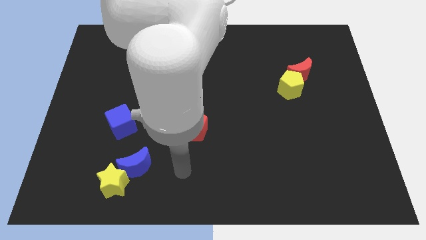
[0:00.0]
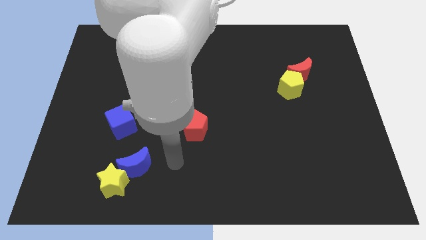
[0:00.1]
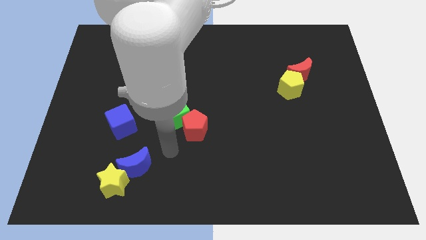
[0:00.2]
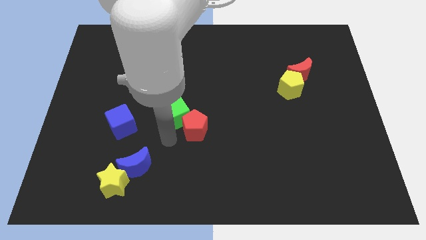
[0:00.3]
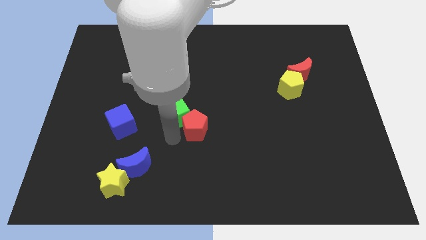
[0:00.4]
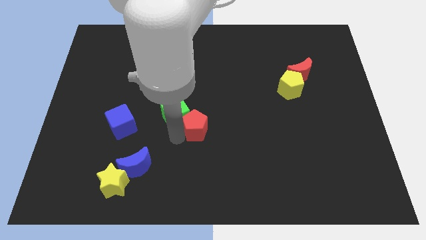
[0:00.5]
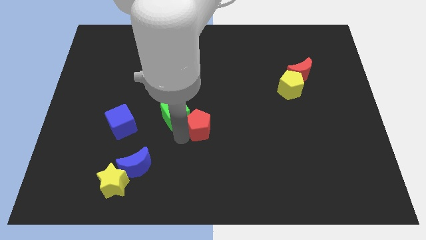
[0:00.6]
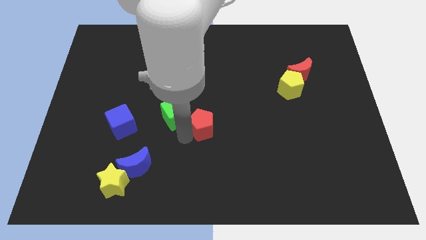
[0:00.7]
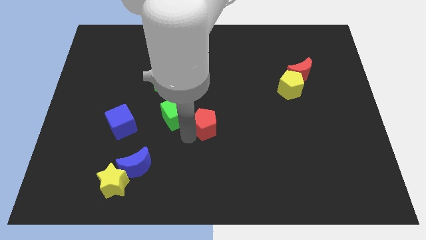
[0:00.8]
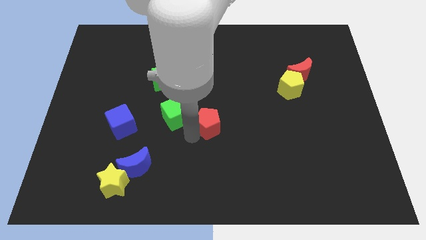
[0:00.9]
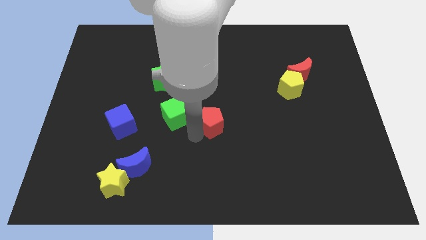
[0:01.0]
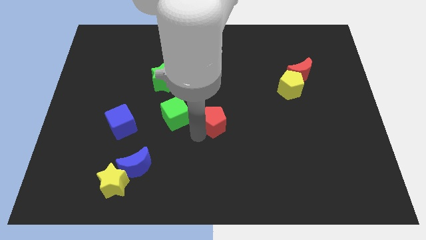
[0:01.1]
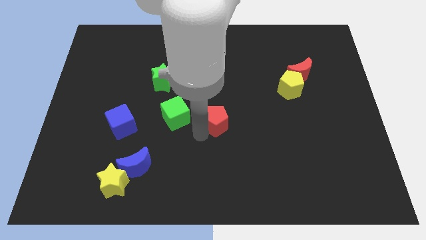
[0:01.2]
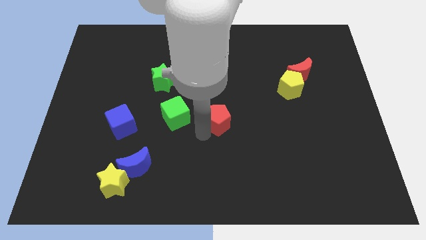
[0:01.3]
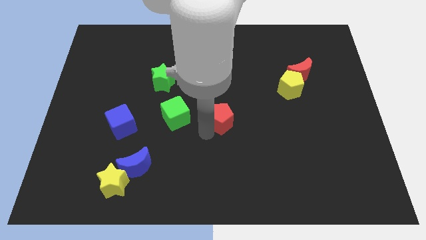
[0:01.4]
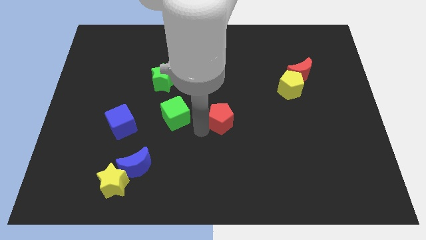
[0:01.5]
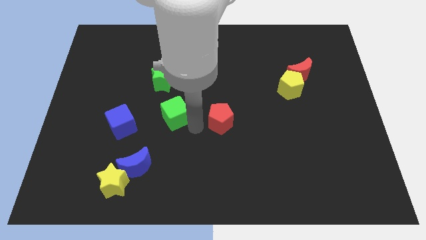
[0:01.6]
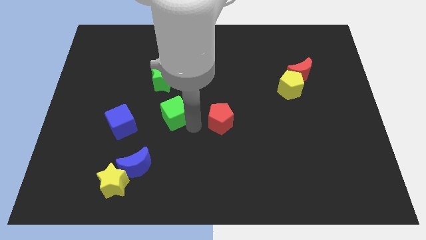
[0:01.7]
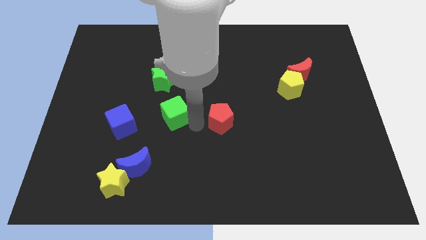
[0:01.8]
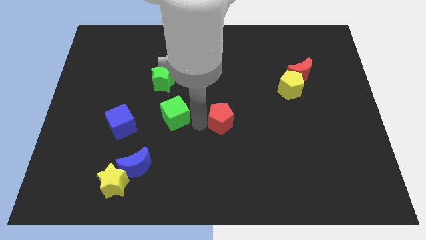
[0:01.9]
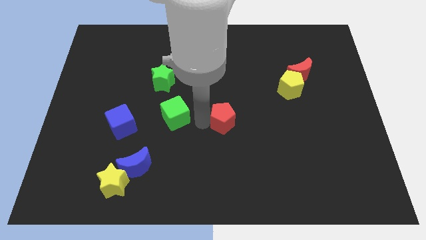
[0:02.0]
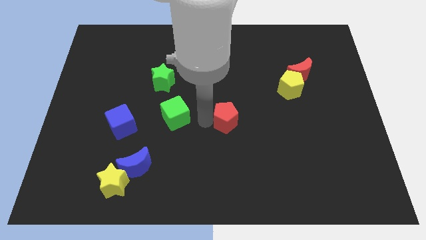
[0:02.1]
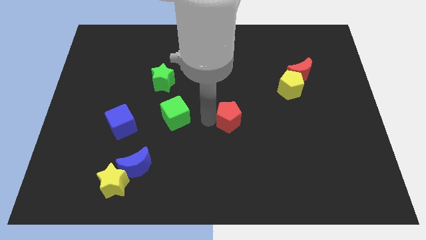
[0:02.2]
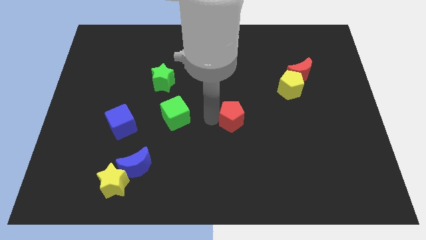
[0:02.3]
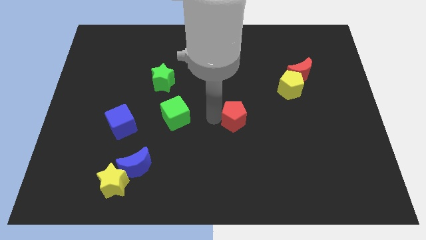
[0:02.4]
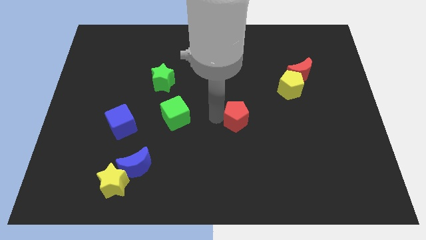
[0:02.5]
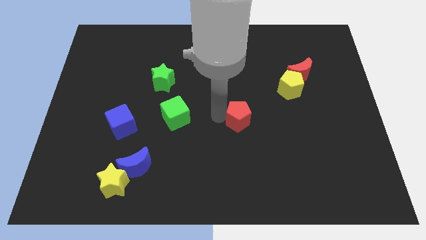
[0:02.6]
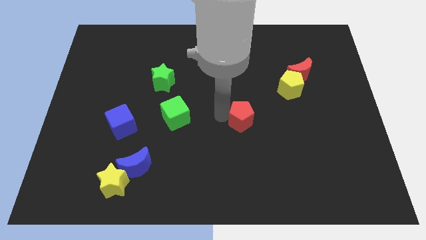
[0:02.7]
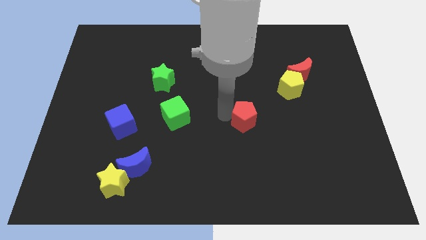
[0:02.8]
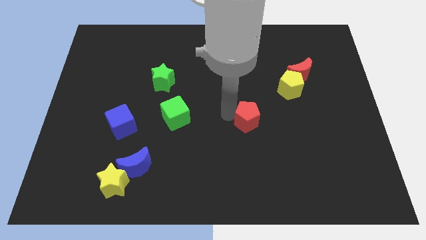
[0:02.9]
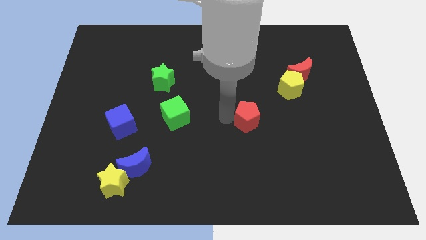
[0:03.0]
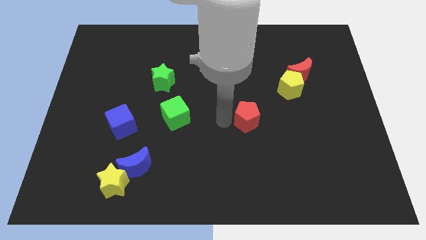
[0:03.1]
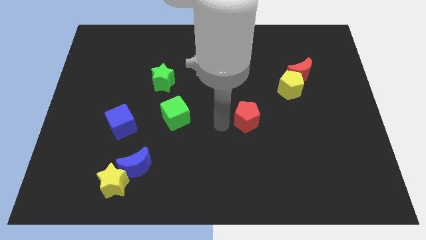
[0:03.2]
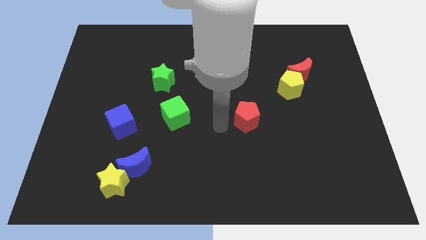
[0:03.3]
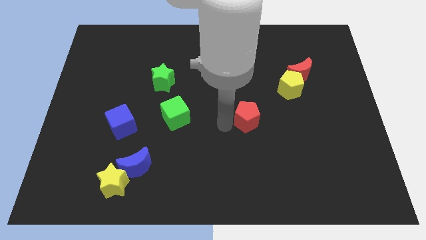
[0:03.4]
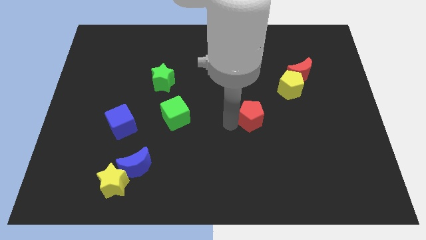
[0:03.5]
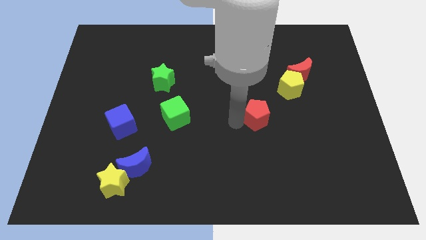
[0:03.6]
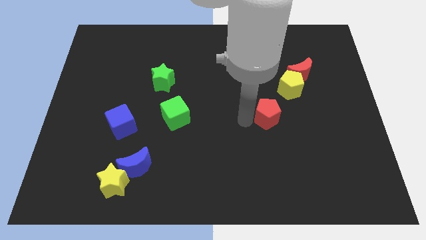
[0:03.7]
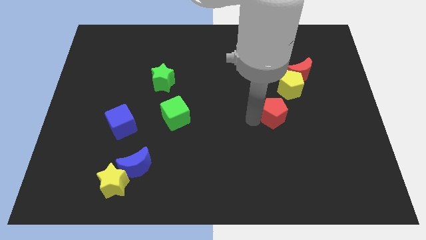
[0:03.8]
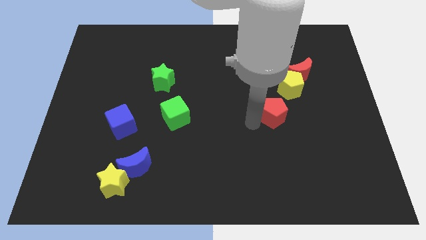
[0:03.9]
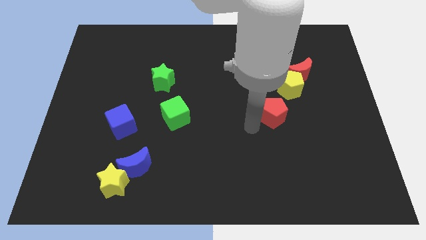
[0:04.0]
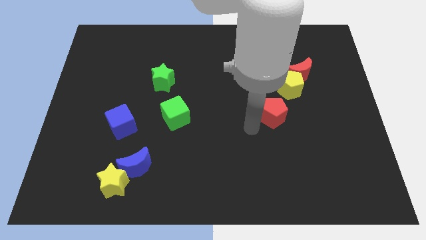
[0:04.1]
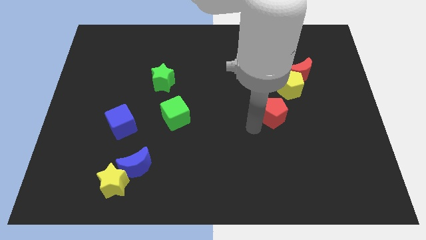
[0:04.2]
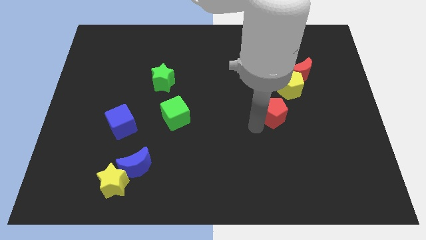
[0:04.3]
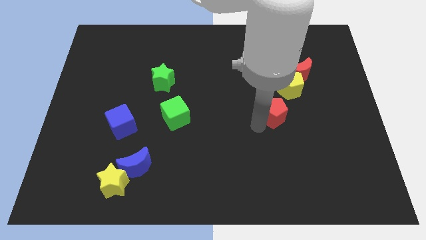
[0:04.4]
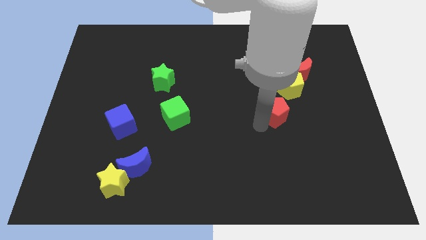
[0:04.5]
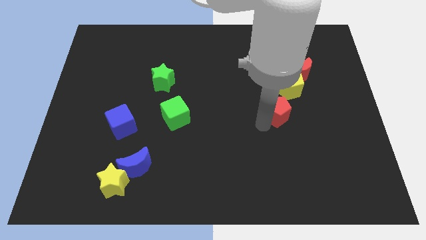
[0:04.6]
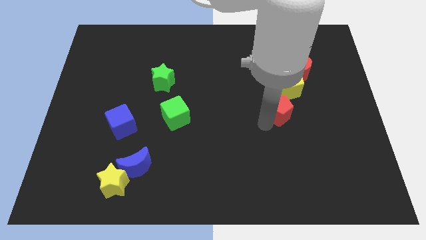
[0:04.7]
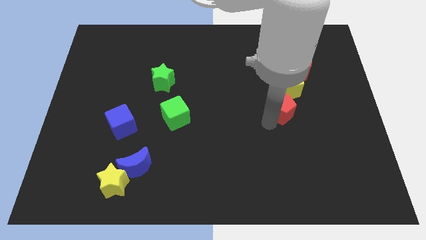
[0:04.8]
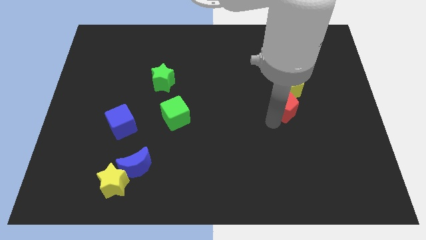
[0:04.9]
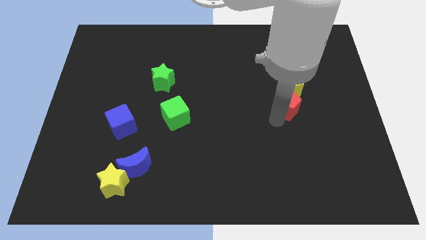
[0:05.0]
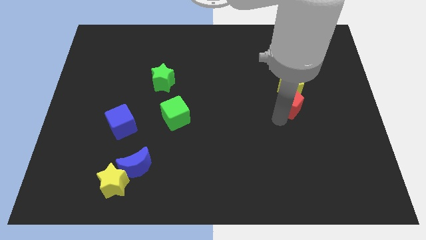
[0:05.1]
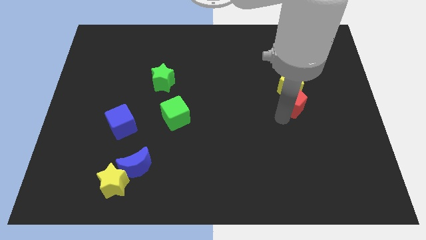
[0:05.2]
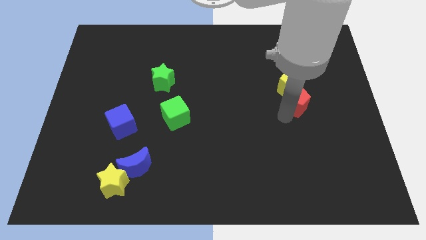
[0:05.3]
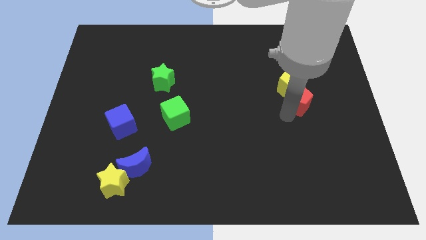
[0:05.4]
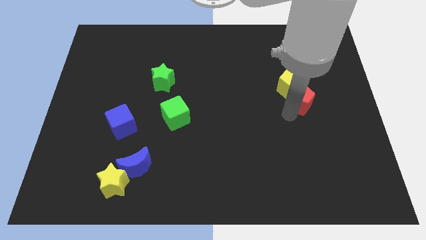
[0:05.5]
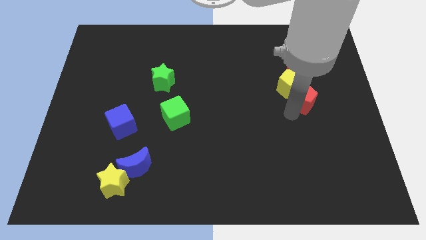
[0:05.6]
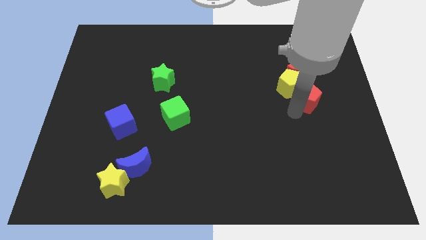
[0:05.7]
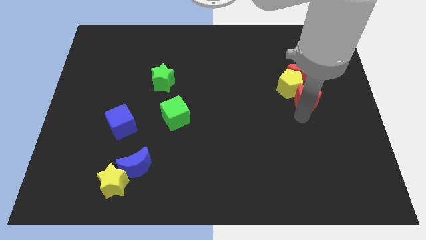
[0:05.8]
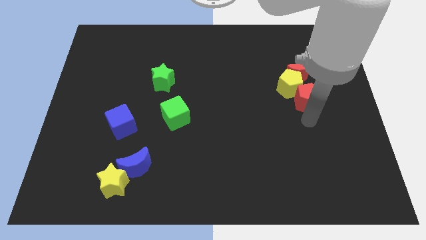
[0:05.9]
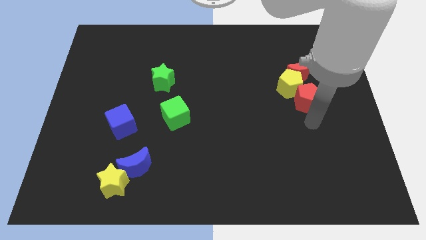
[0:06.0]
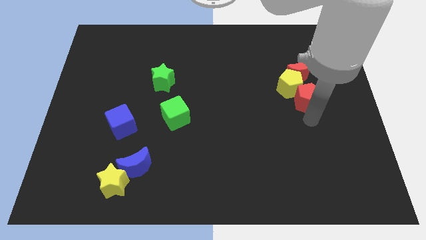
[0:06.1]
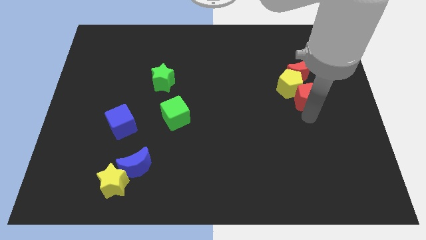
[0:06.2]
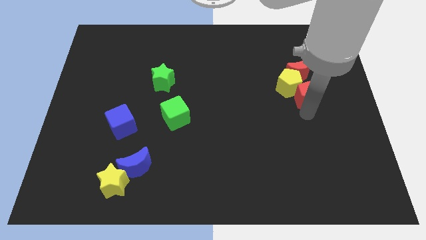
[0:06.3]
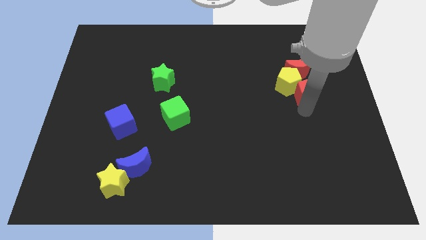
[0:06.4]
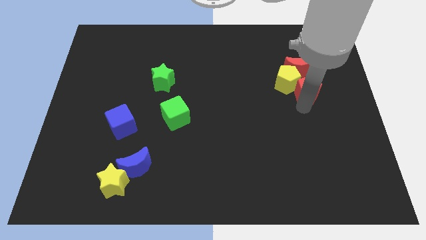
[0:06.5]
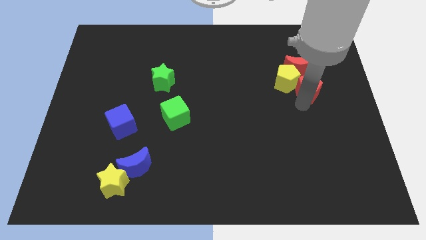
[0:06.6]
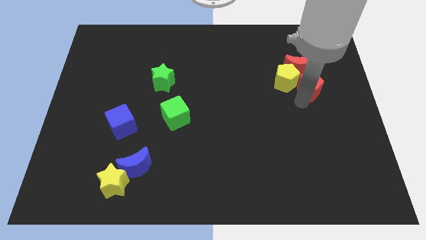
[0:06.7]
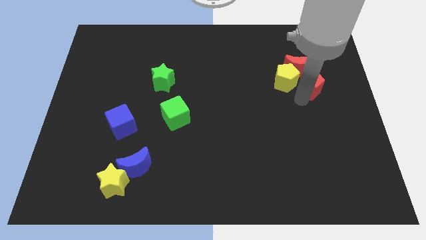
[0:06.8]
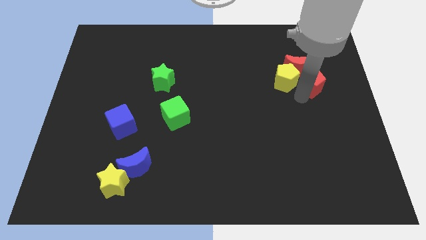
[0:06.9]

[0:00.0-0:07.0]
move the red pentagon close to the red moon
